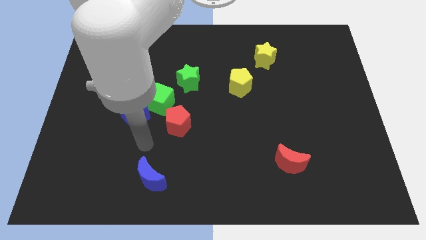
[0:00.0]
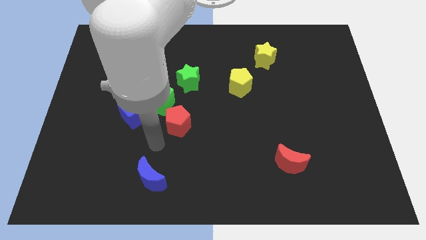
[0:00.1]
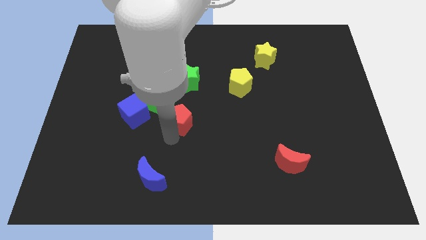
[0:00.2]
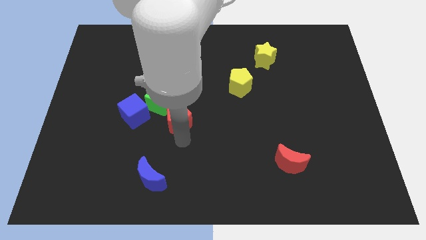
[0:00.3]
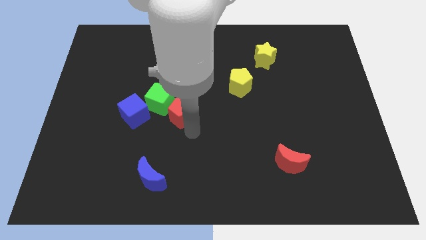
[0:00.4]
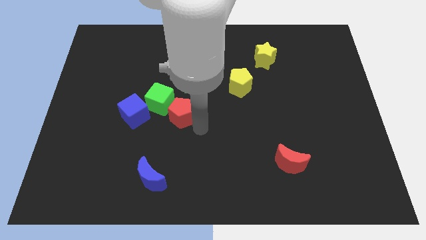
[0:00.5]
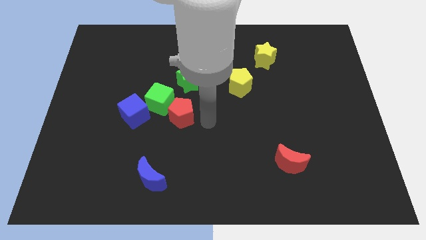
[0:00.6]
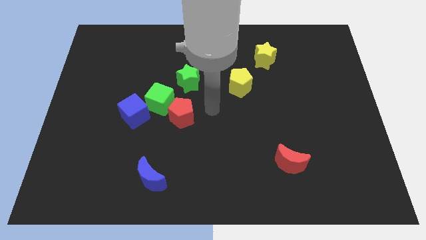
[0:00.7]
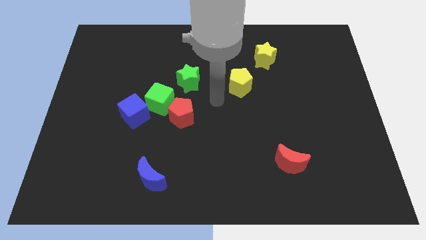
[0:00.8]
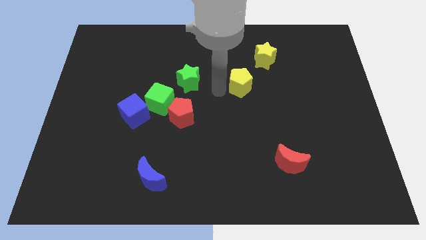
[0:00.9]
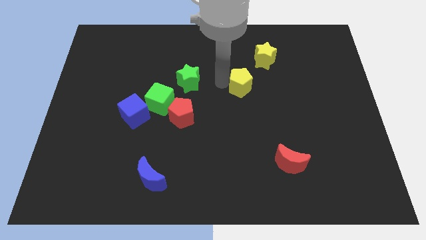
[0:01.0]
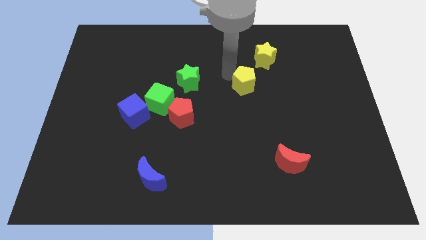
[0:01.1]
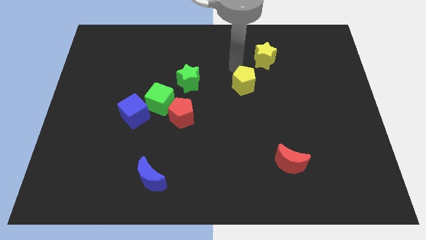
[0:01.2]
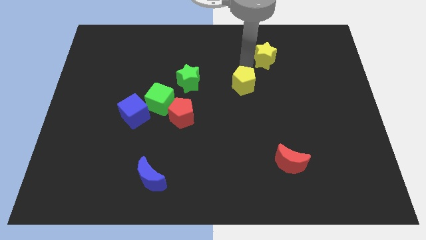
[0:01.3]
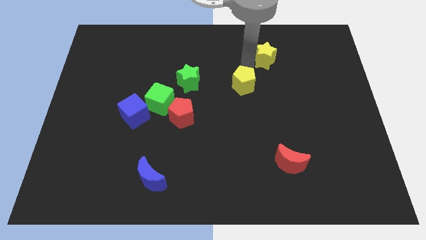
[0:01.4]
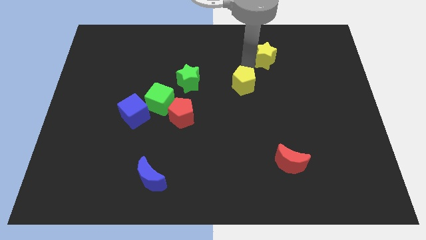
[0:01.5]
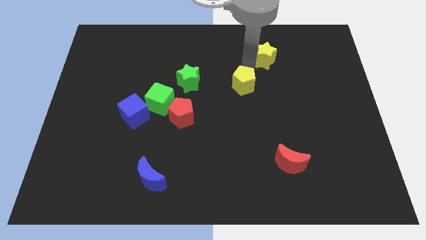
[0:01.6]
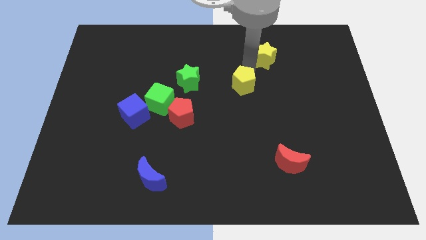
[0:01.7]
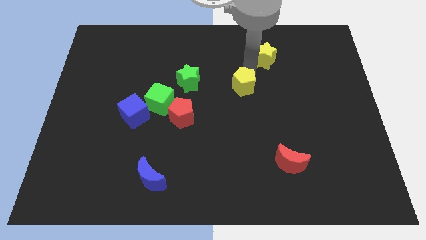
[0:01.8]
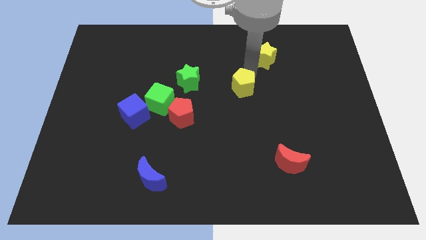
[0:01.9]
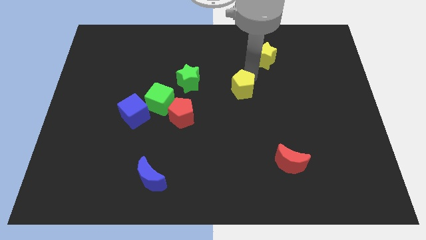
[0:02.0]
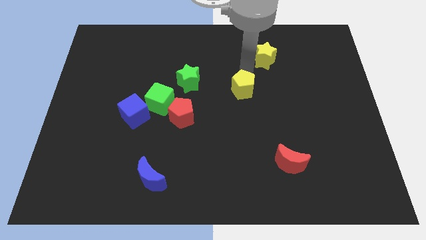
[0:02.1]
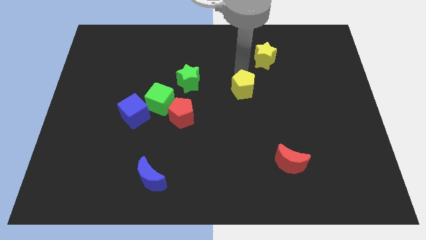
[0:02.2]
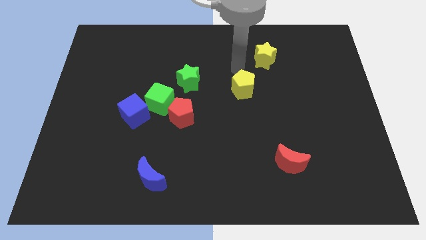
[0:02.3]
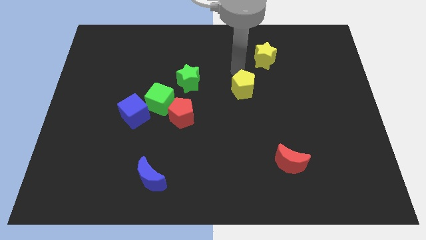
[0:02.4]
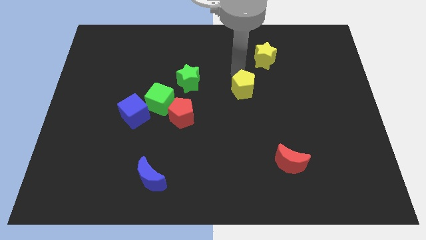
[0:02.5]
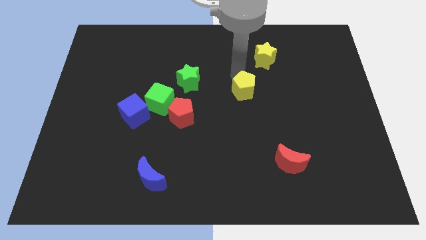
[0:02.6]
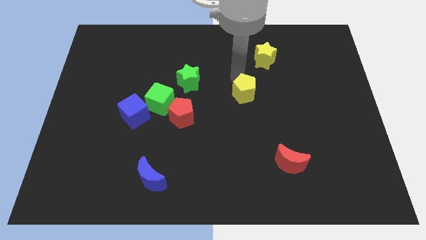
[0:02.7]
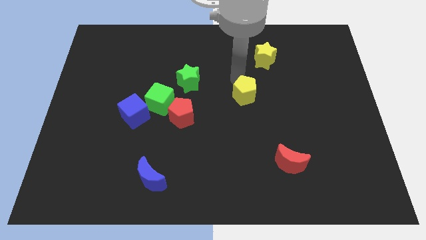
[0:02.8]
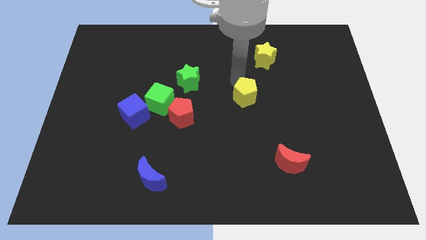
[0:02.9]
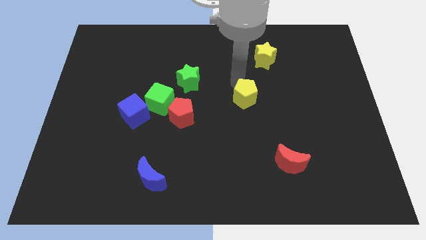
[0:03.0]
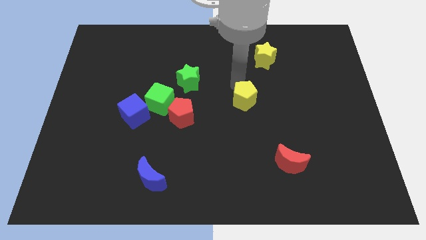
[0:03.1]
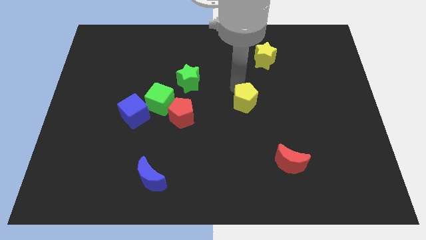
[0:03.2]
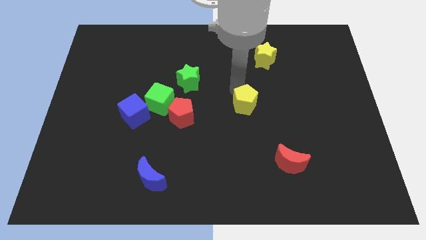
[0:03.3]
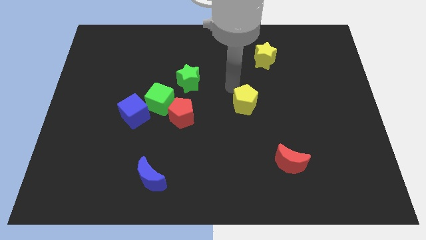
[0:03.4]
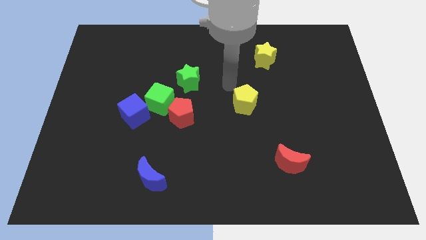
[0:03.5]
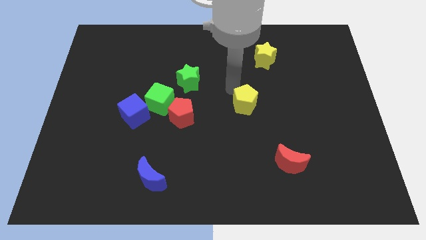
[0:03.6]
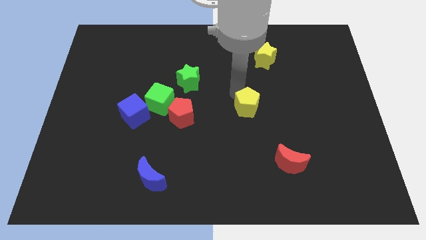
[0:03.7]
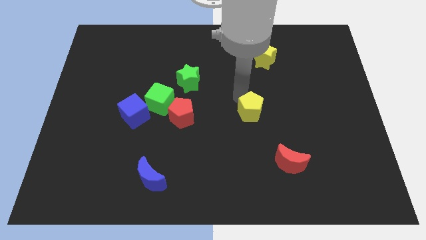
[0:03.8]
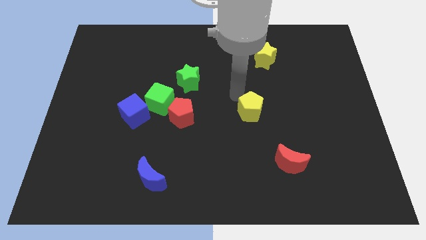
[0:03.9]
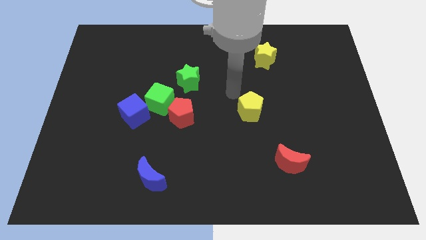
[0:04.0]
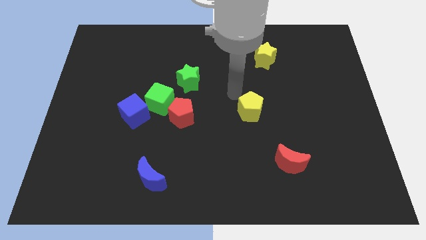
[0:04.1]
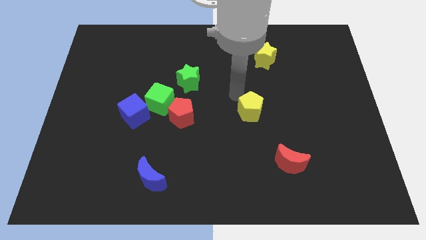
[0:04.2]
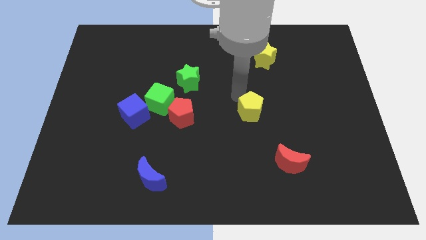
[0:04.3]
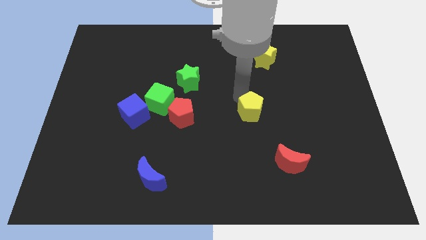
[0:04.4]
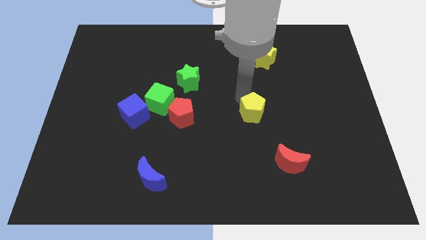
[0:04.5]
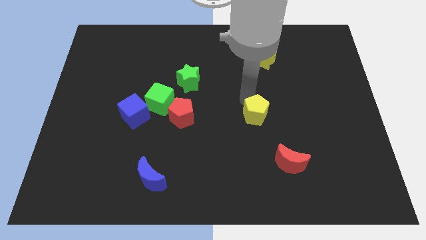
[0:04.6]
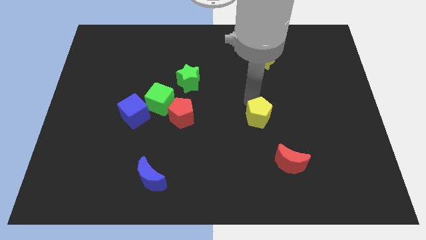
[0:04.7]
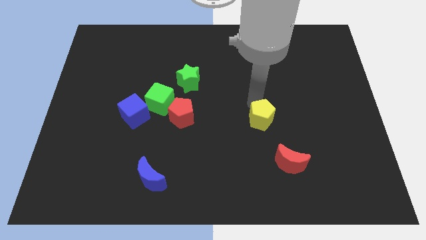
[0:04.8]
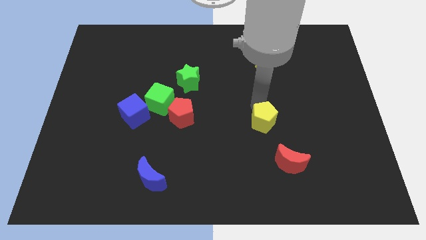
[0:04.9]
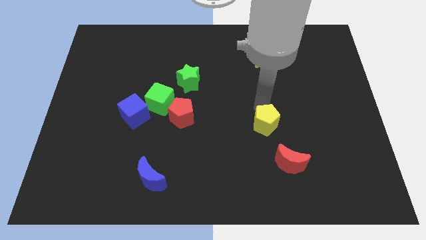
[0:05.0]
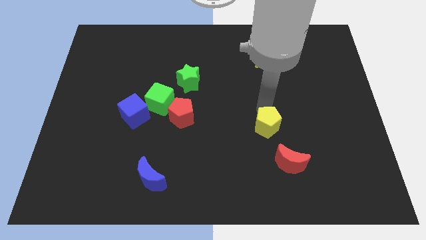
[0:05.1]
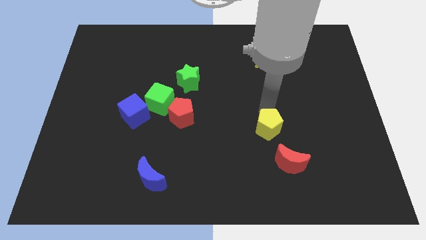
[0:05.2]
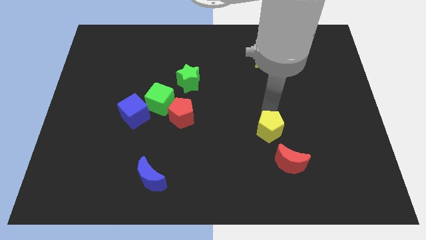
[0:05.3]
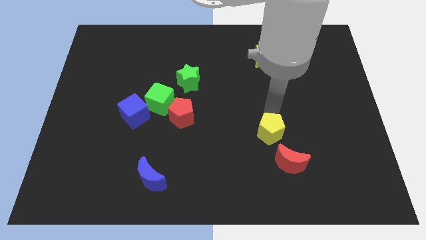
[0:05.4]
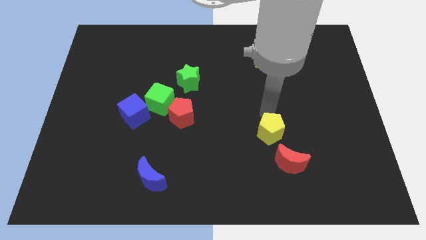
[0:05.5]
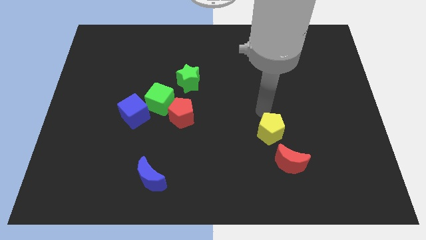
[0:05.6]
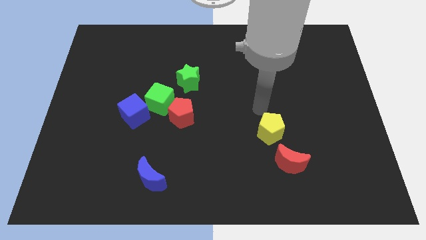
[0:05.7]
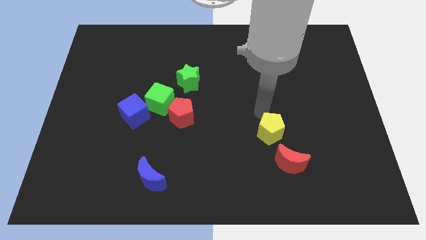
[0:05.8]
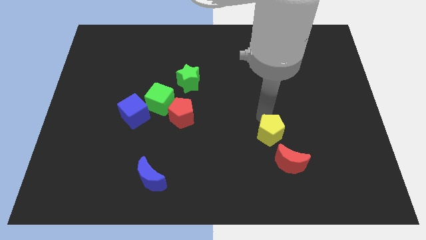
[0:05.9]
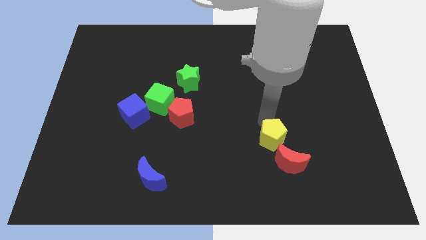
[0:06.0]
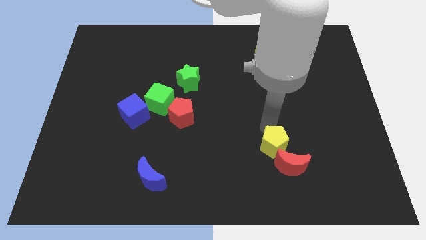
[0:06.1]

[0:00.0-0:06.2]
slide the yellow pentagon towards the red moon

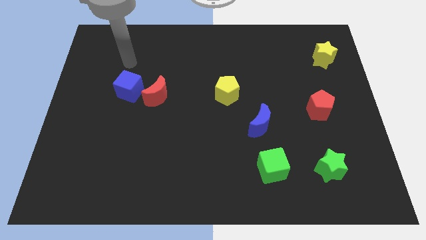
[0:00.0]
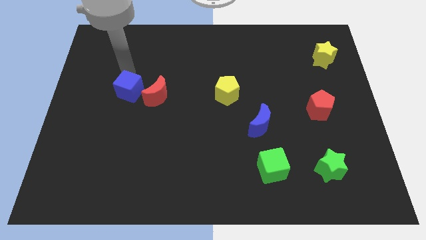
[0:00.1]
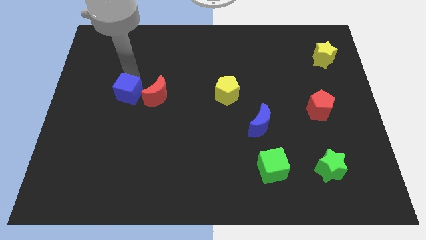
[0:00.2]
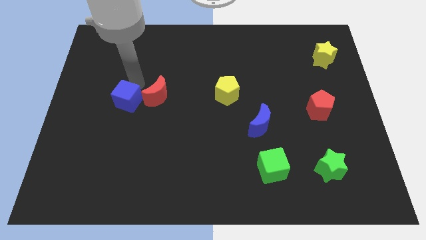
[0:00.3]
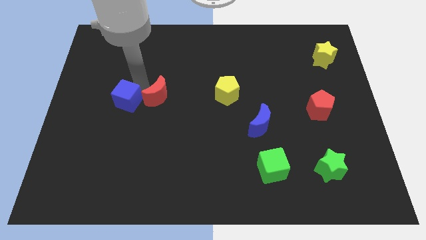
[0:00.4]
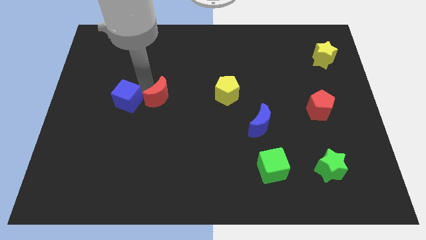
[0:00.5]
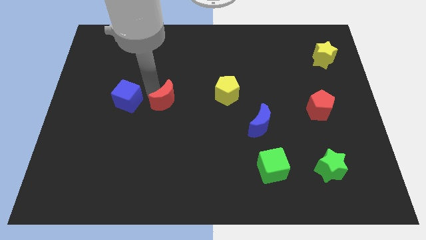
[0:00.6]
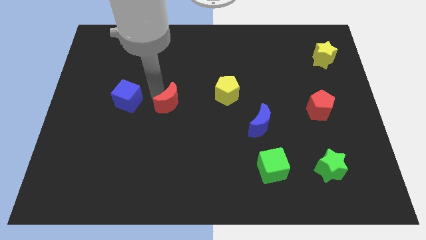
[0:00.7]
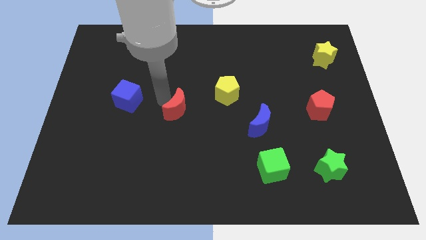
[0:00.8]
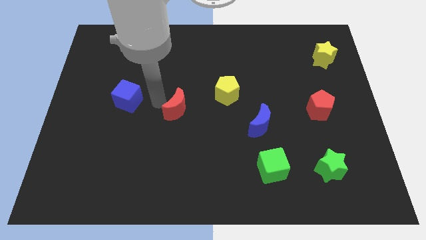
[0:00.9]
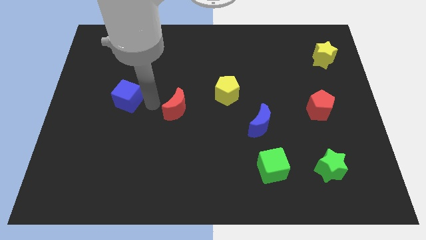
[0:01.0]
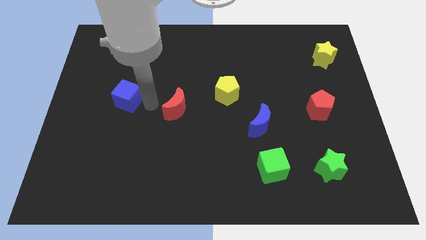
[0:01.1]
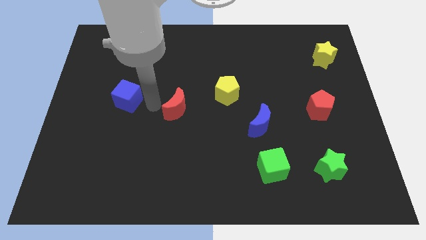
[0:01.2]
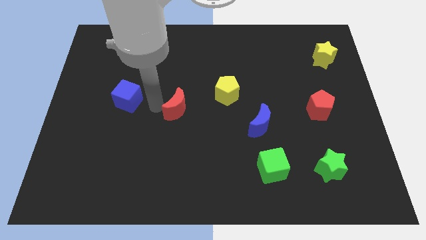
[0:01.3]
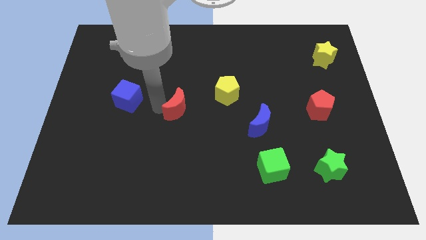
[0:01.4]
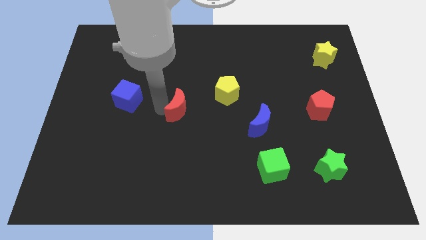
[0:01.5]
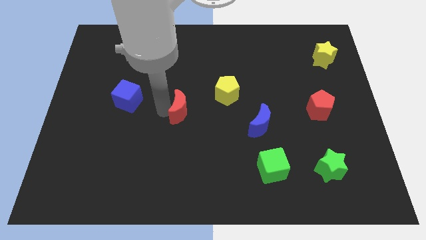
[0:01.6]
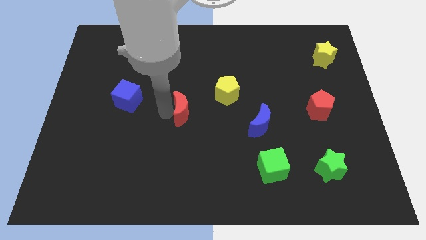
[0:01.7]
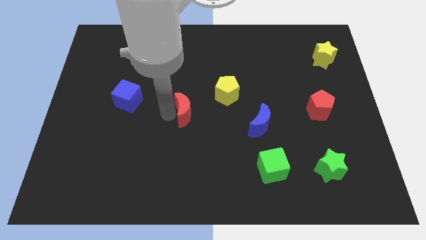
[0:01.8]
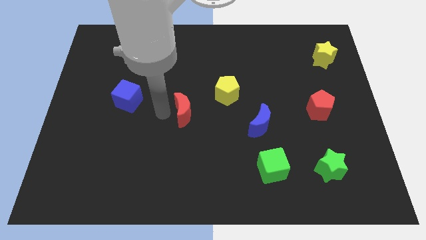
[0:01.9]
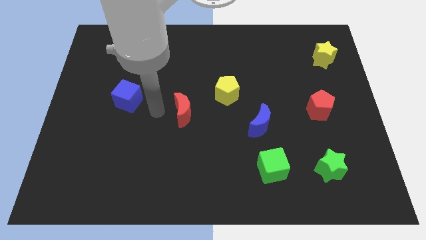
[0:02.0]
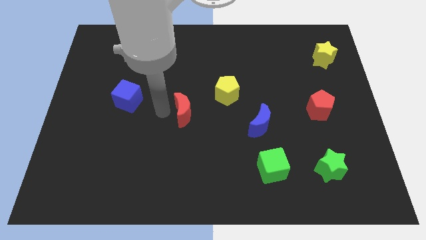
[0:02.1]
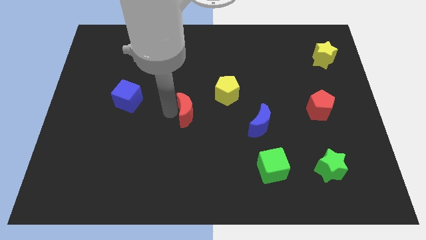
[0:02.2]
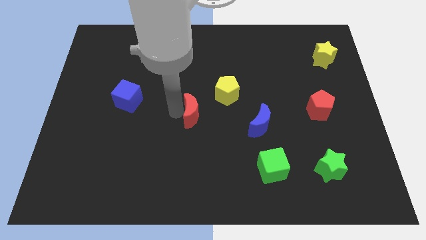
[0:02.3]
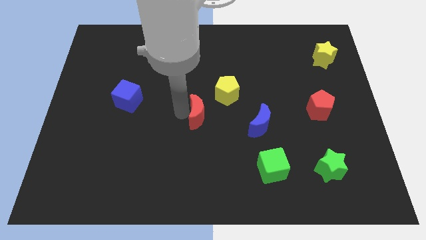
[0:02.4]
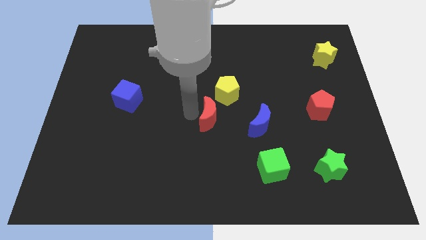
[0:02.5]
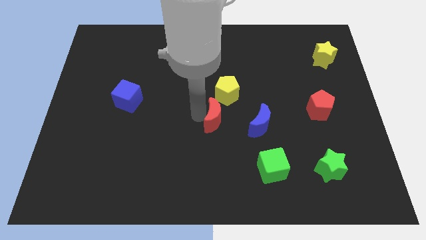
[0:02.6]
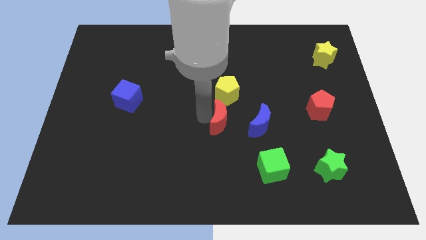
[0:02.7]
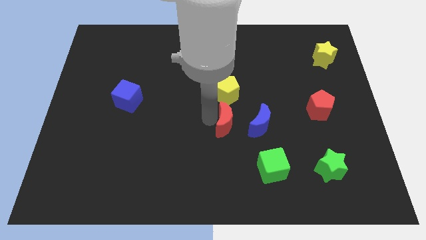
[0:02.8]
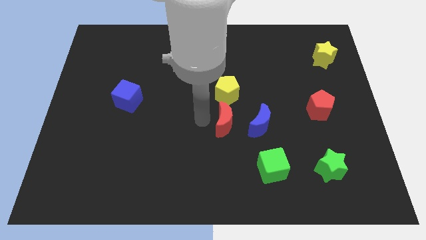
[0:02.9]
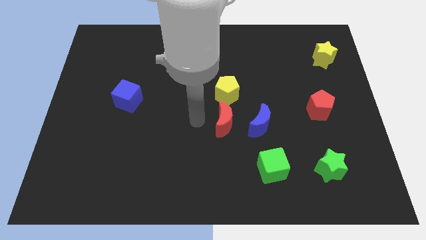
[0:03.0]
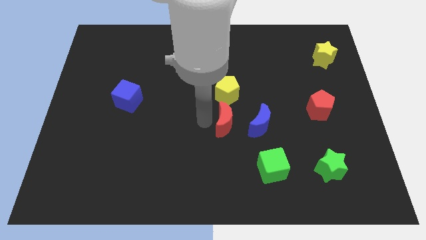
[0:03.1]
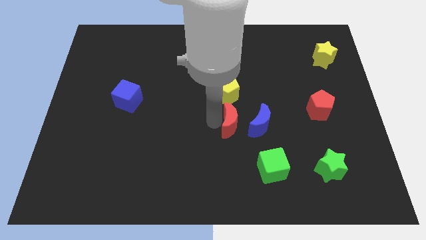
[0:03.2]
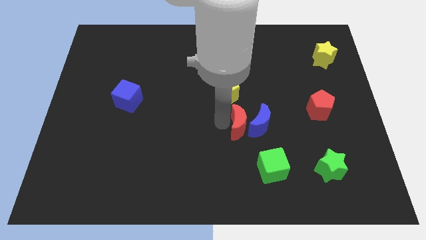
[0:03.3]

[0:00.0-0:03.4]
push the red moon close to the blue moon
